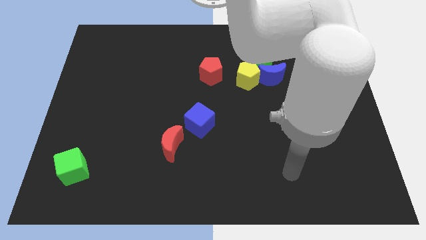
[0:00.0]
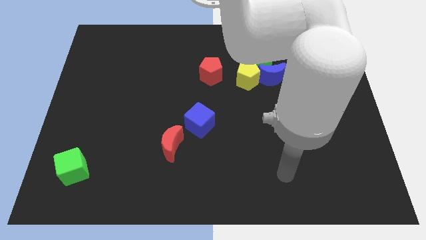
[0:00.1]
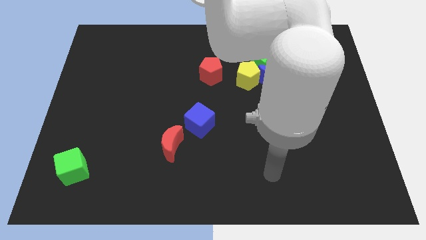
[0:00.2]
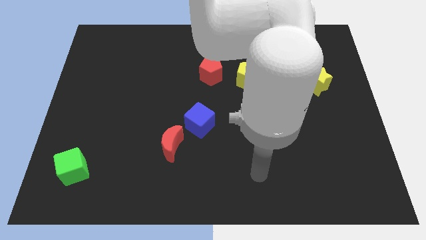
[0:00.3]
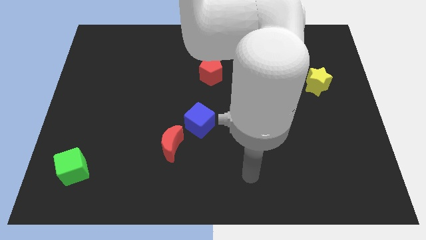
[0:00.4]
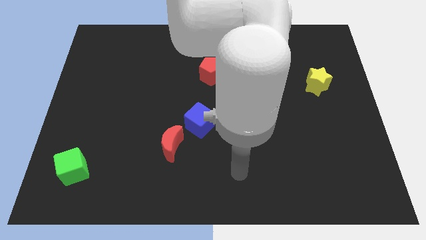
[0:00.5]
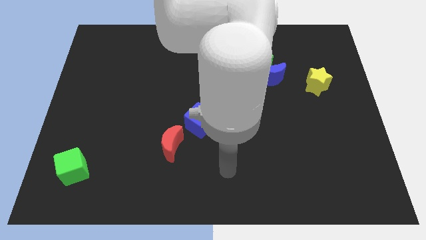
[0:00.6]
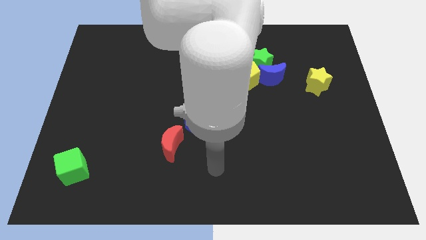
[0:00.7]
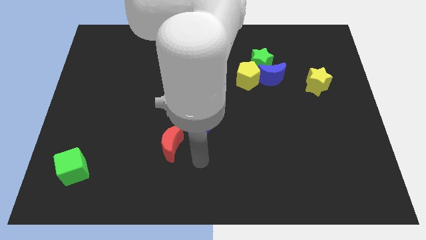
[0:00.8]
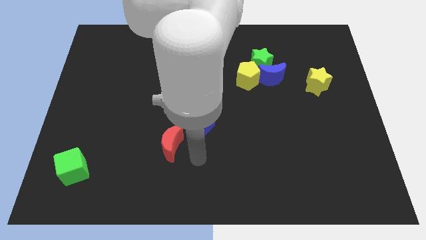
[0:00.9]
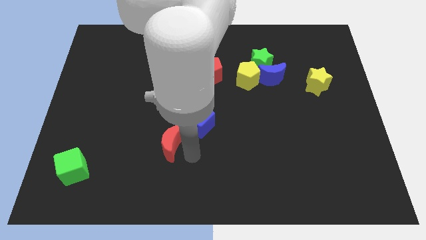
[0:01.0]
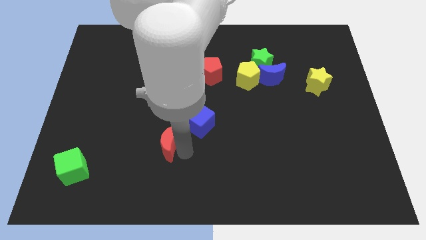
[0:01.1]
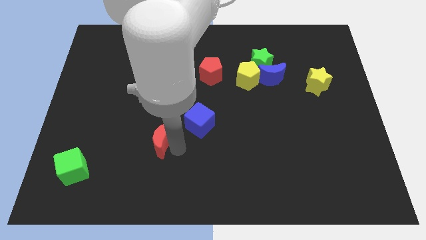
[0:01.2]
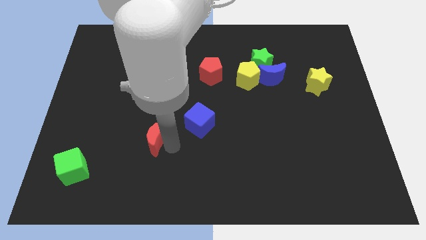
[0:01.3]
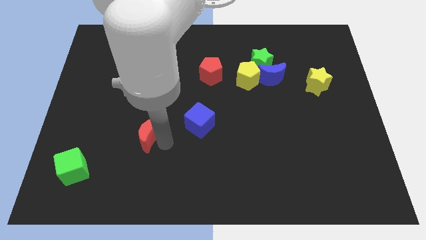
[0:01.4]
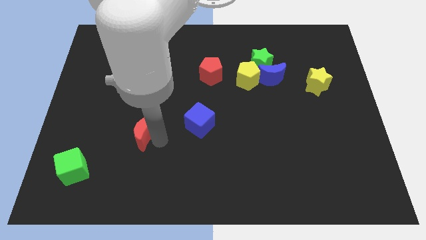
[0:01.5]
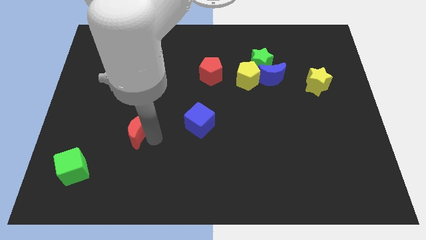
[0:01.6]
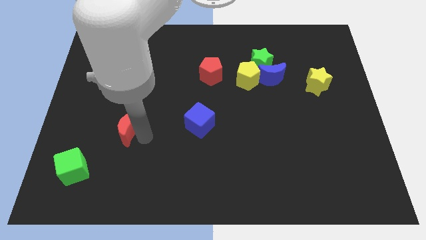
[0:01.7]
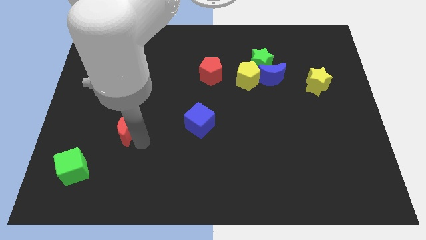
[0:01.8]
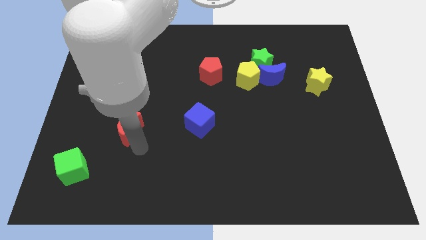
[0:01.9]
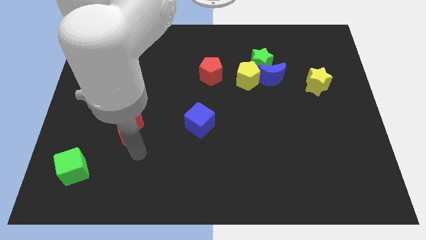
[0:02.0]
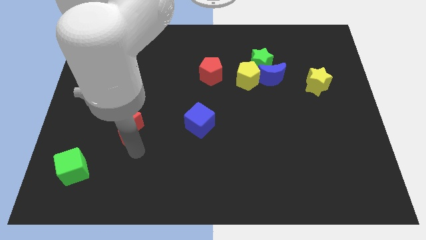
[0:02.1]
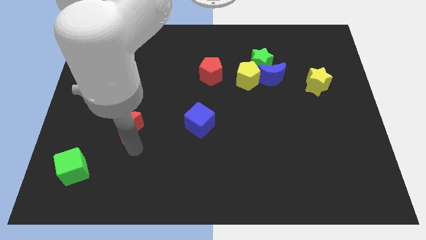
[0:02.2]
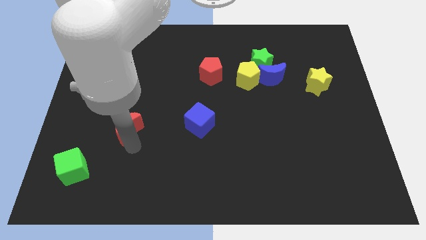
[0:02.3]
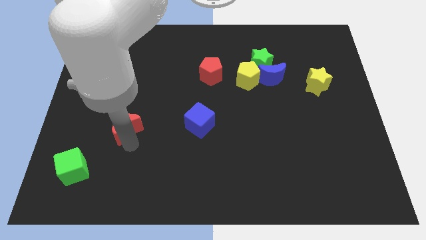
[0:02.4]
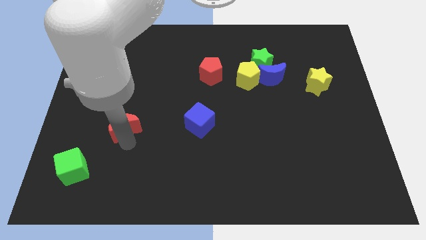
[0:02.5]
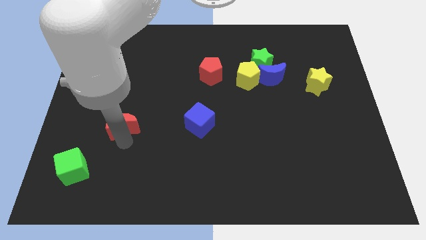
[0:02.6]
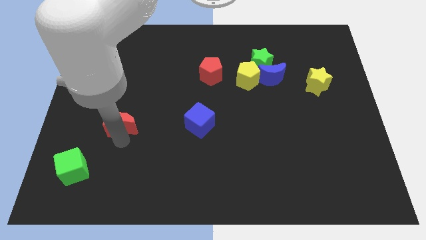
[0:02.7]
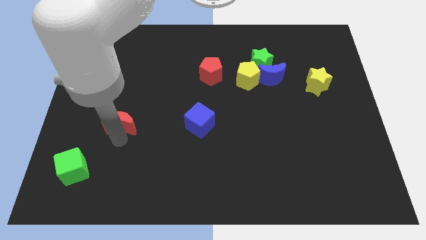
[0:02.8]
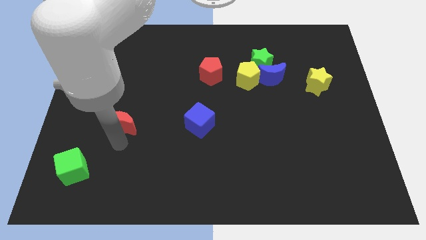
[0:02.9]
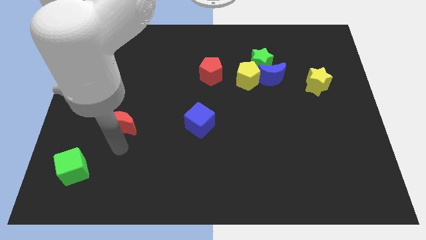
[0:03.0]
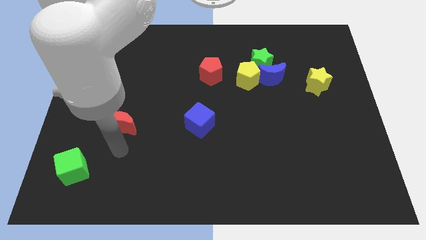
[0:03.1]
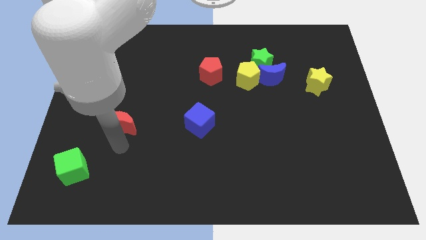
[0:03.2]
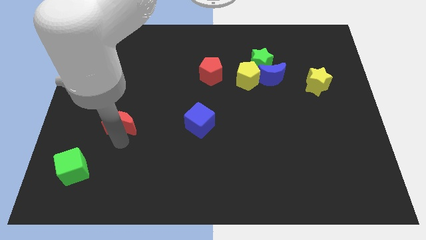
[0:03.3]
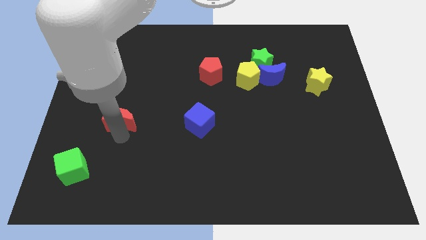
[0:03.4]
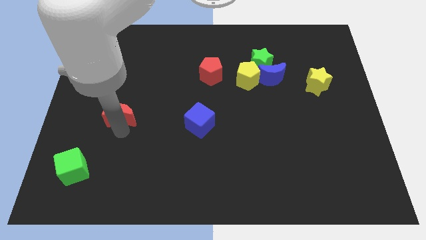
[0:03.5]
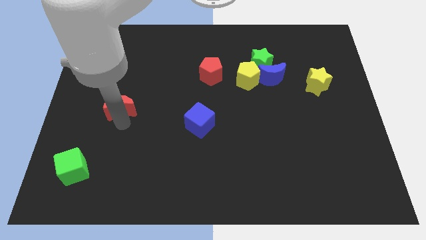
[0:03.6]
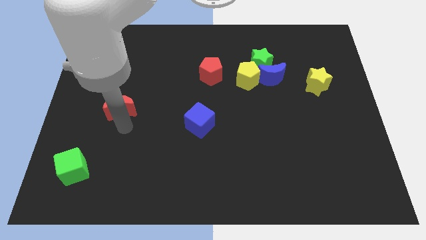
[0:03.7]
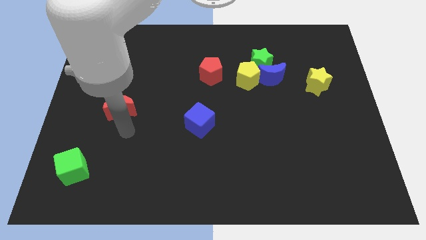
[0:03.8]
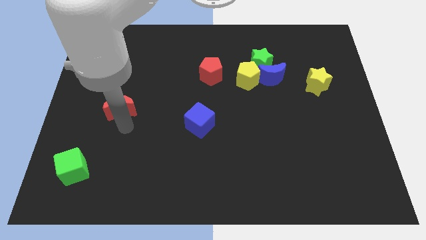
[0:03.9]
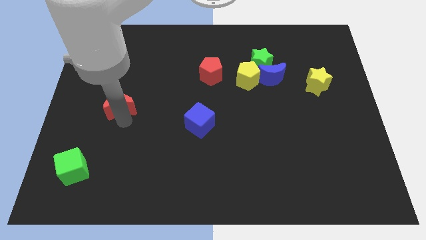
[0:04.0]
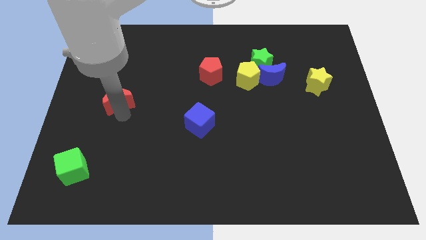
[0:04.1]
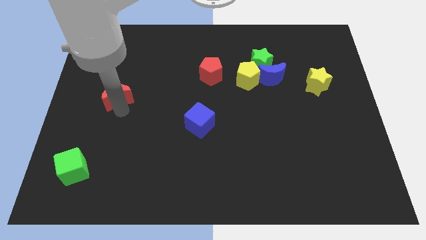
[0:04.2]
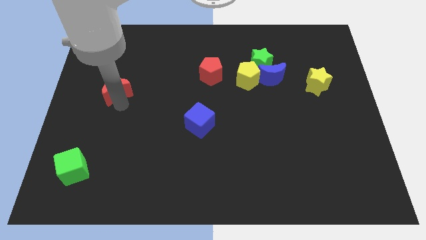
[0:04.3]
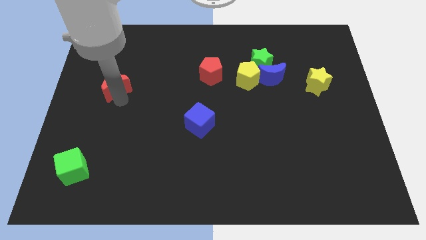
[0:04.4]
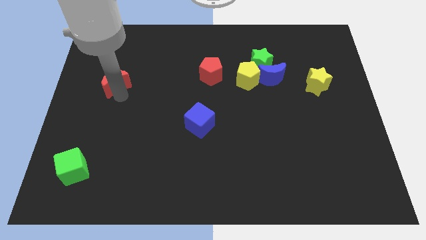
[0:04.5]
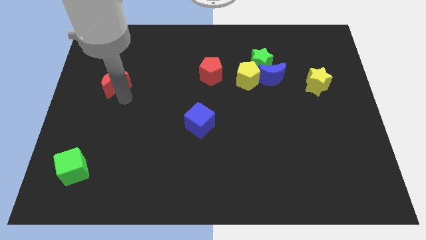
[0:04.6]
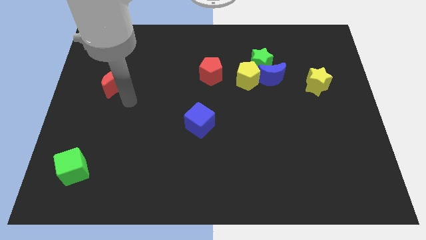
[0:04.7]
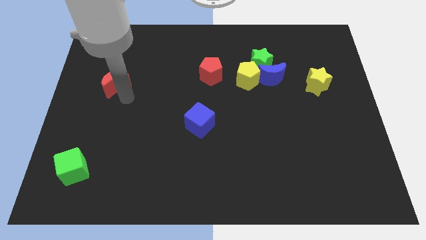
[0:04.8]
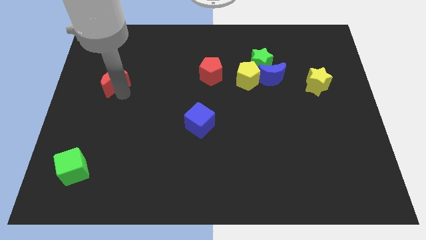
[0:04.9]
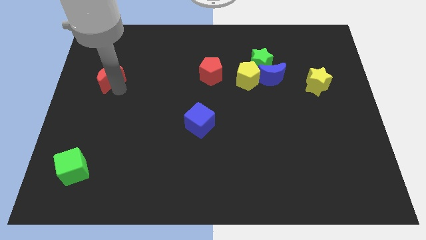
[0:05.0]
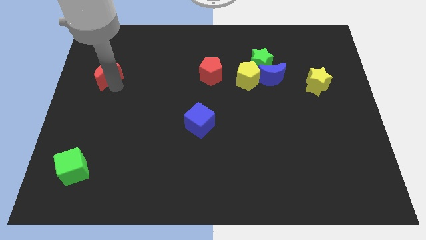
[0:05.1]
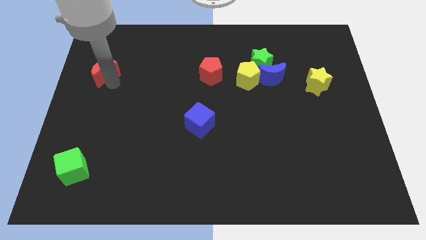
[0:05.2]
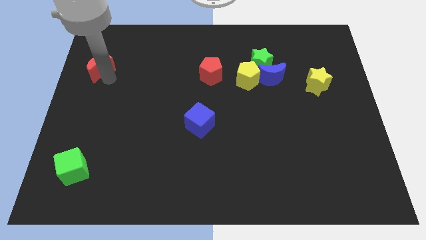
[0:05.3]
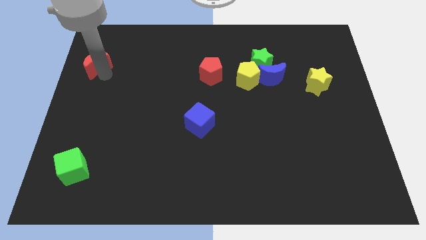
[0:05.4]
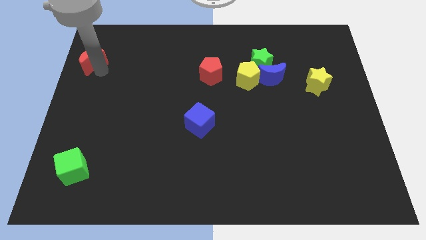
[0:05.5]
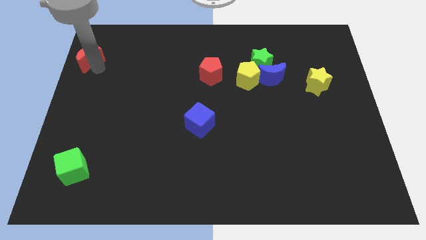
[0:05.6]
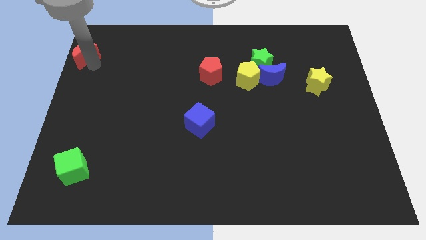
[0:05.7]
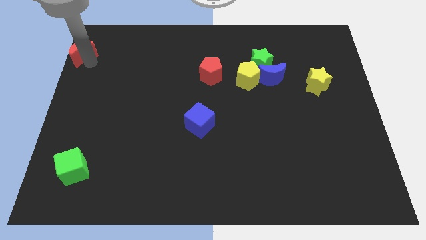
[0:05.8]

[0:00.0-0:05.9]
slide the red moon to the upper left corner

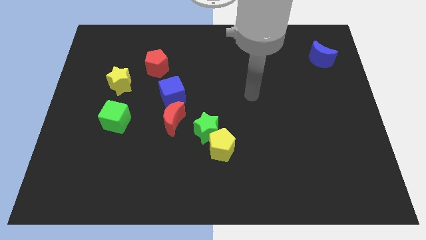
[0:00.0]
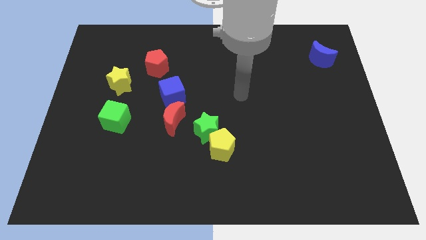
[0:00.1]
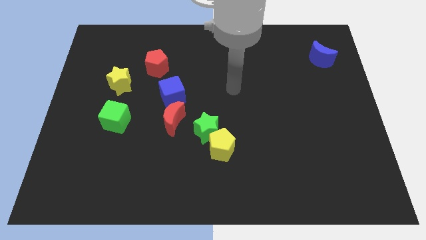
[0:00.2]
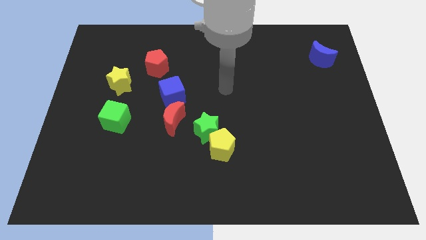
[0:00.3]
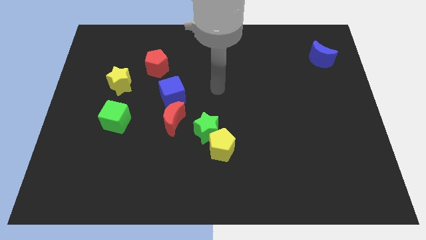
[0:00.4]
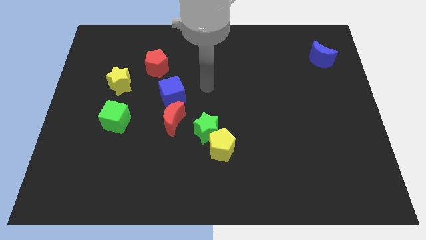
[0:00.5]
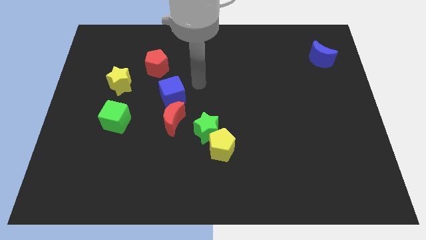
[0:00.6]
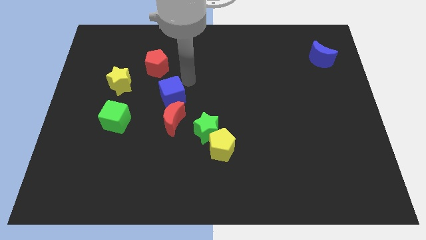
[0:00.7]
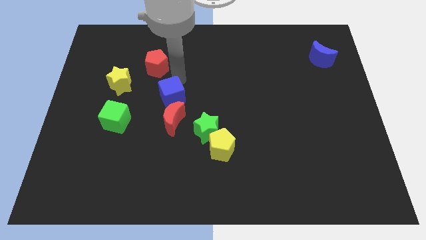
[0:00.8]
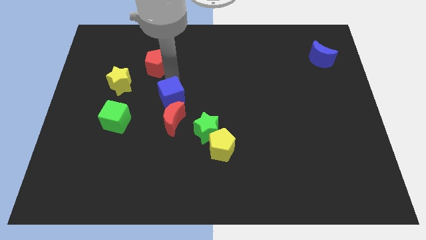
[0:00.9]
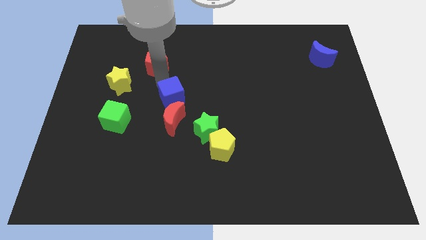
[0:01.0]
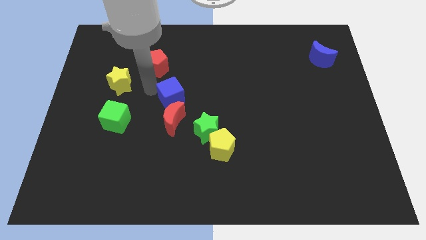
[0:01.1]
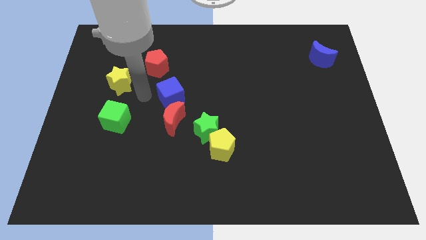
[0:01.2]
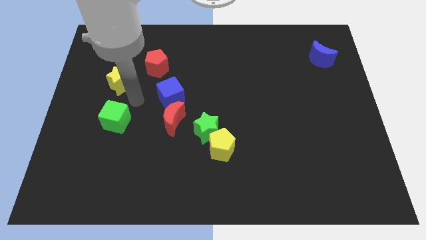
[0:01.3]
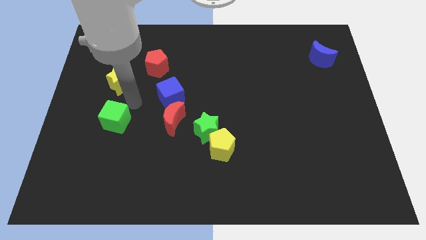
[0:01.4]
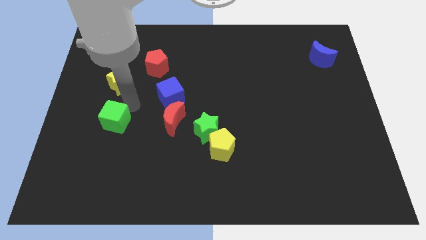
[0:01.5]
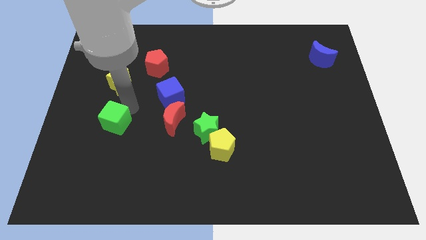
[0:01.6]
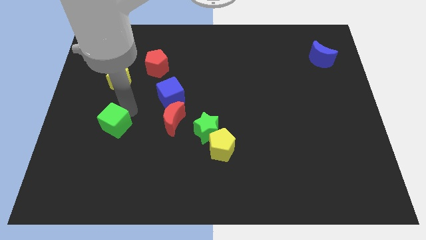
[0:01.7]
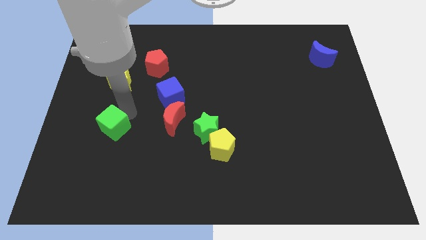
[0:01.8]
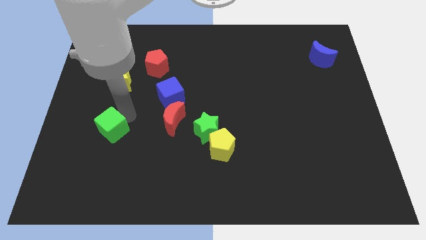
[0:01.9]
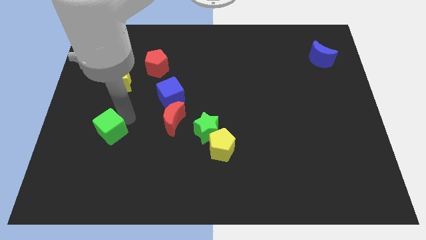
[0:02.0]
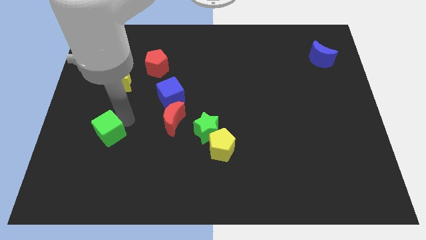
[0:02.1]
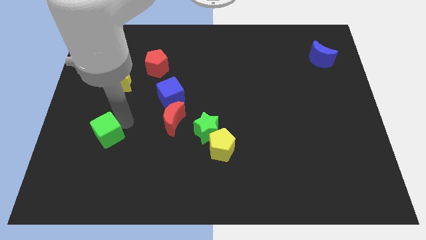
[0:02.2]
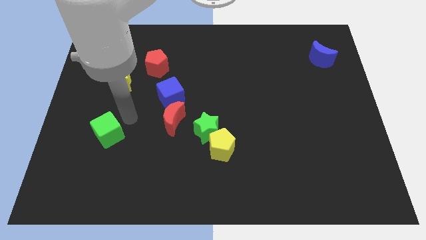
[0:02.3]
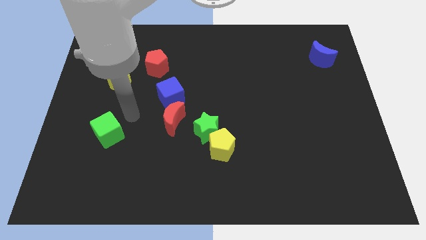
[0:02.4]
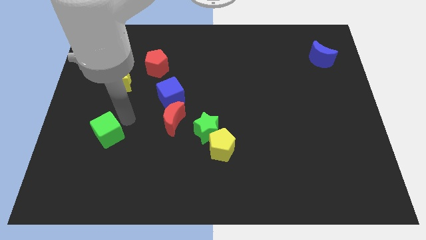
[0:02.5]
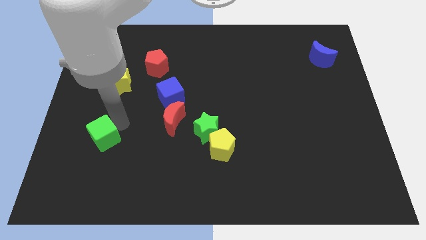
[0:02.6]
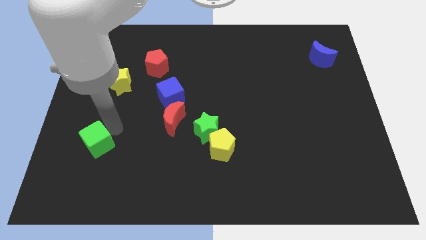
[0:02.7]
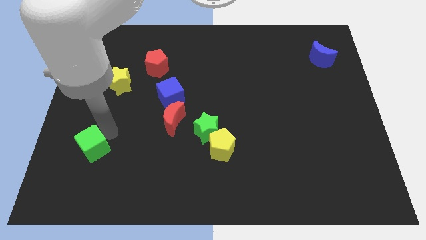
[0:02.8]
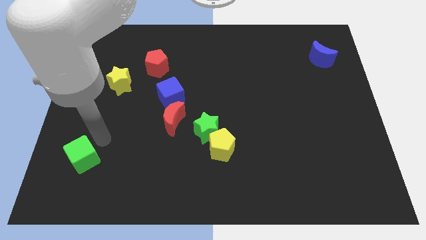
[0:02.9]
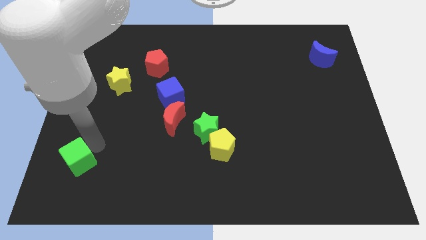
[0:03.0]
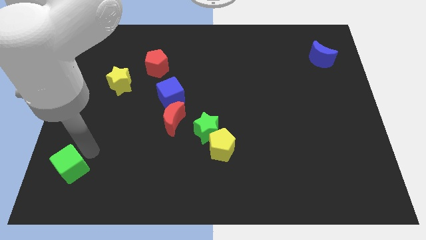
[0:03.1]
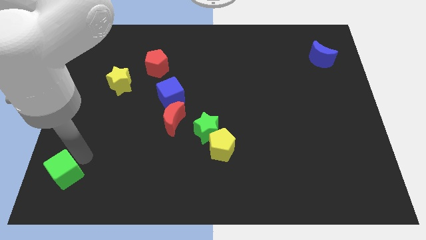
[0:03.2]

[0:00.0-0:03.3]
put the green cube to the lower left corner
